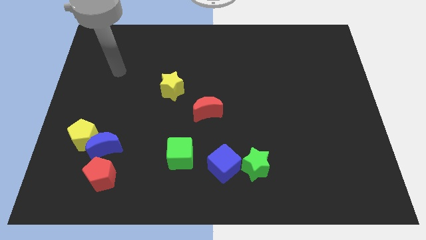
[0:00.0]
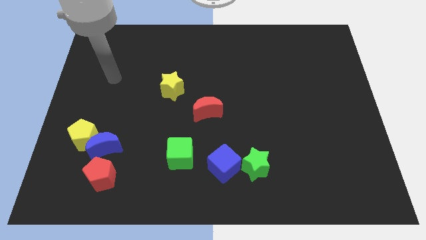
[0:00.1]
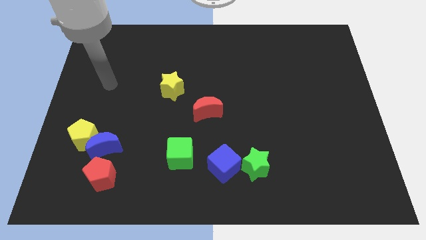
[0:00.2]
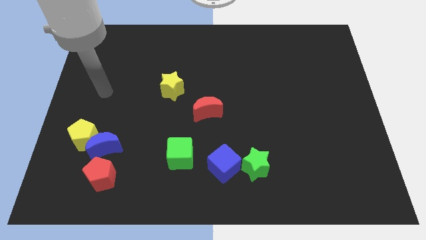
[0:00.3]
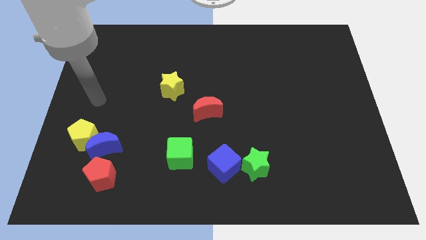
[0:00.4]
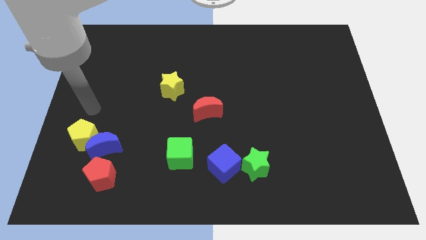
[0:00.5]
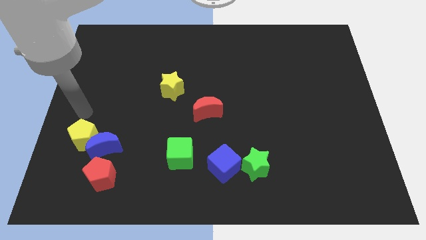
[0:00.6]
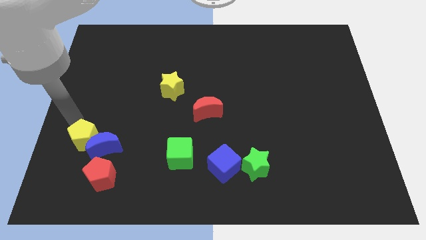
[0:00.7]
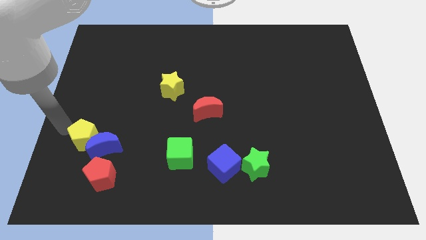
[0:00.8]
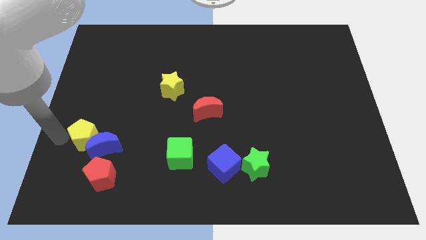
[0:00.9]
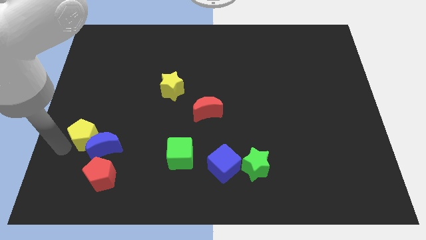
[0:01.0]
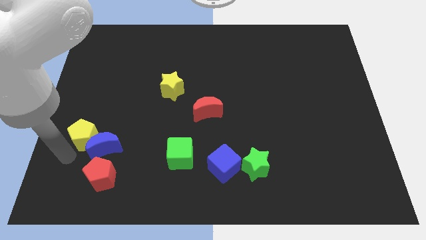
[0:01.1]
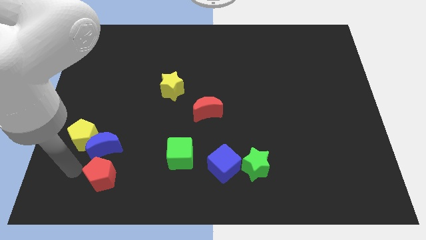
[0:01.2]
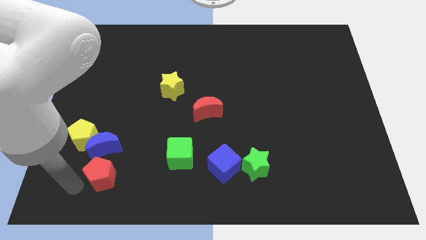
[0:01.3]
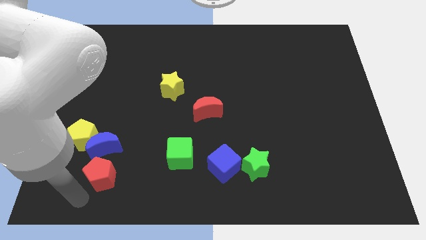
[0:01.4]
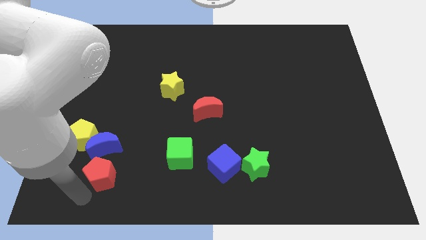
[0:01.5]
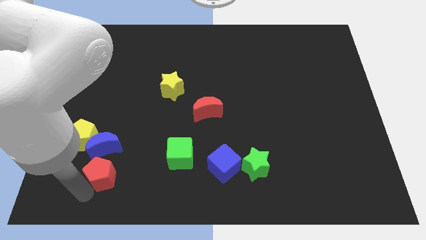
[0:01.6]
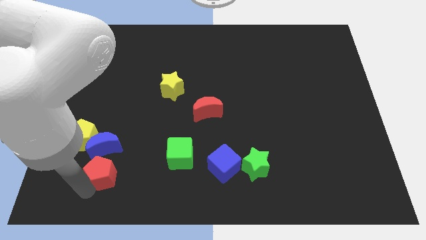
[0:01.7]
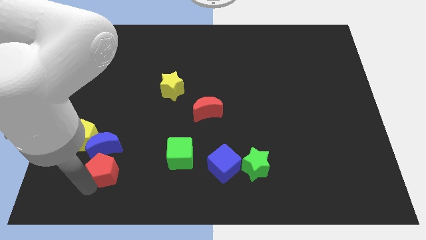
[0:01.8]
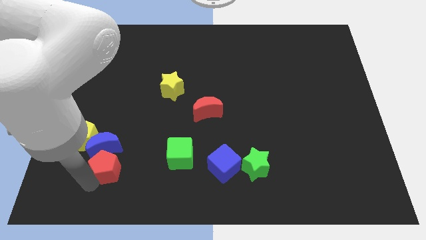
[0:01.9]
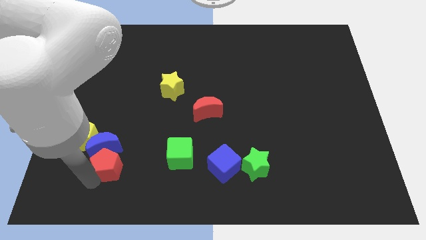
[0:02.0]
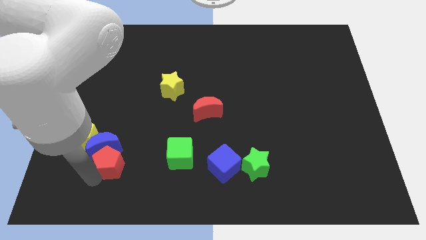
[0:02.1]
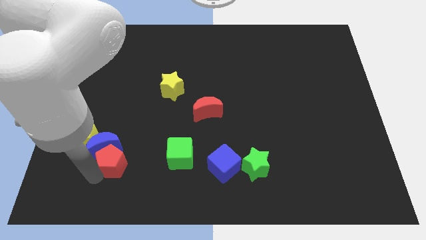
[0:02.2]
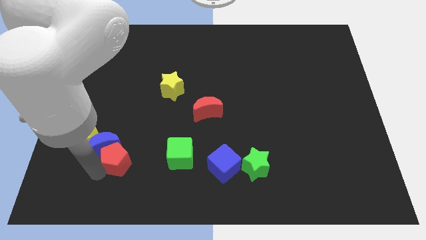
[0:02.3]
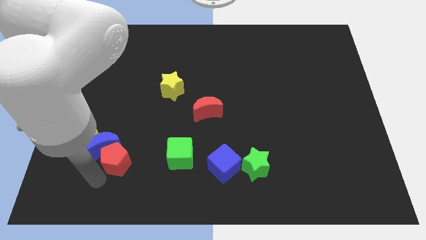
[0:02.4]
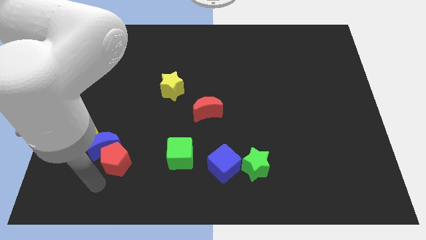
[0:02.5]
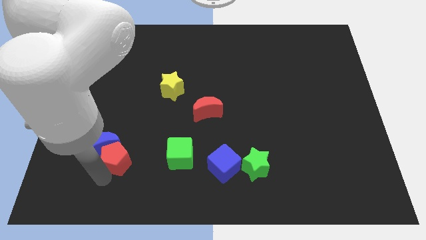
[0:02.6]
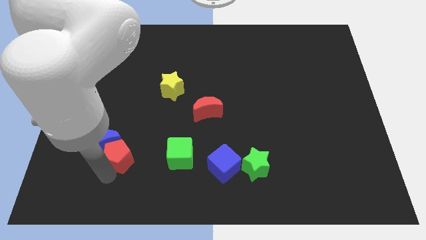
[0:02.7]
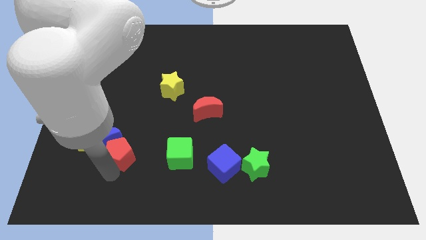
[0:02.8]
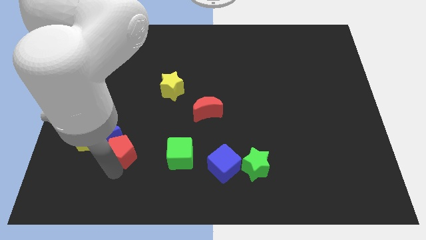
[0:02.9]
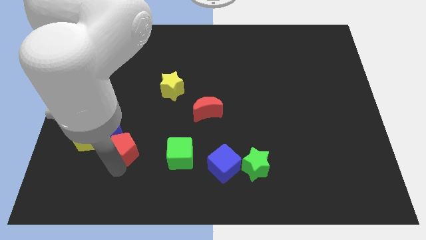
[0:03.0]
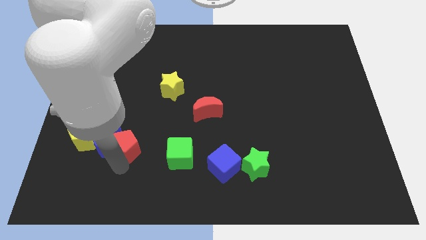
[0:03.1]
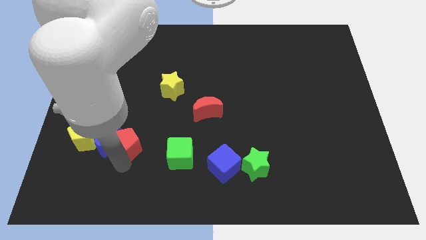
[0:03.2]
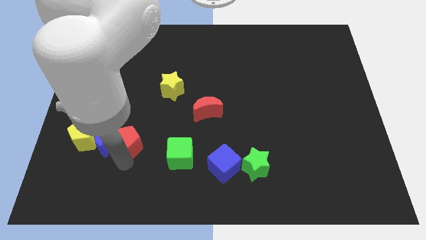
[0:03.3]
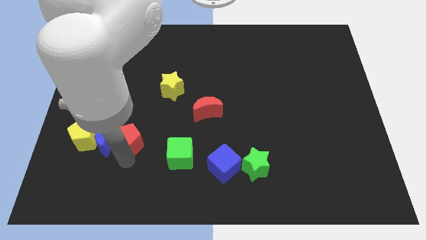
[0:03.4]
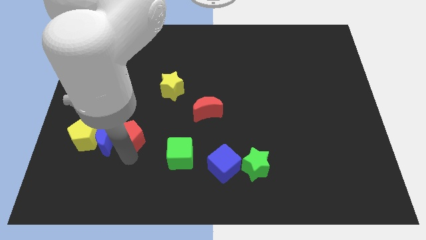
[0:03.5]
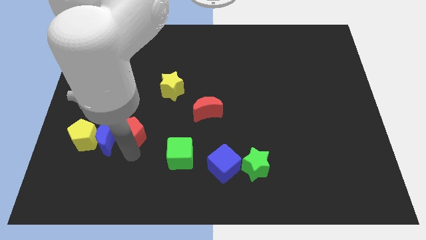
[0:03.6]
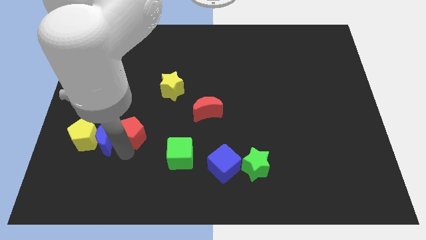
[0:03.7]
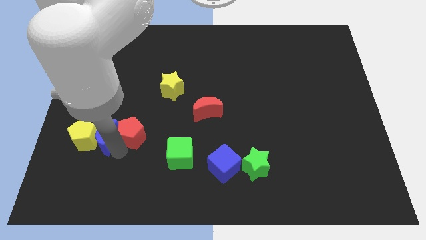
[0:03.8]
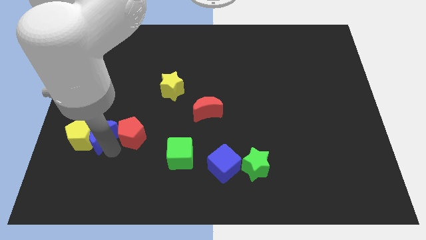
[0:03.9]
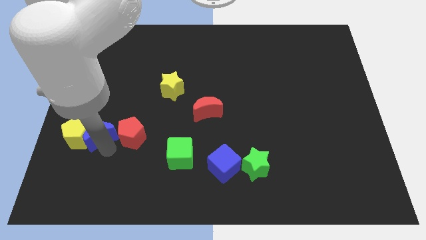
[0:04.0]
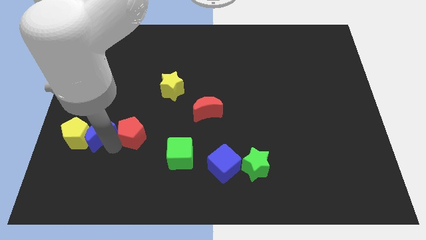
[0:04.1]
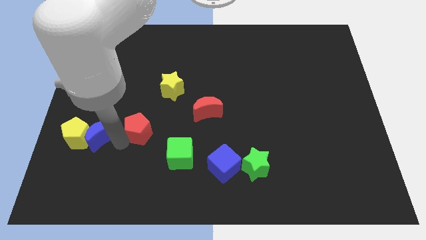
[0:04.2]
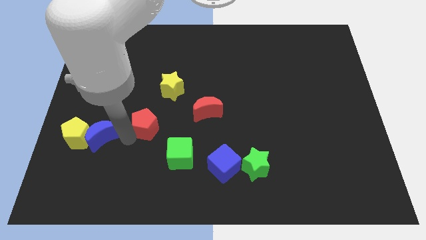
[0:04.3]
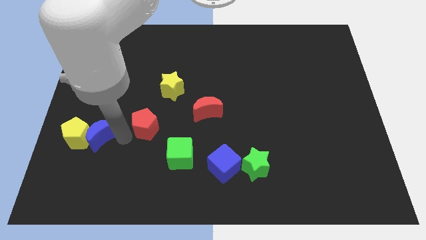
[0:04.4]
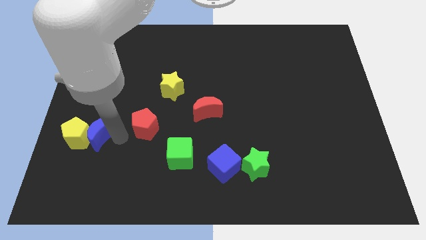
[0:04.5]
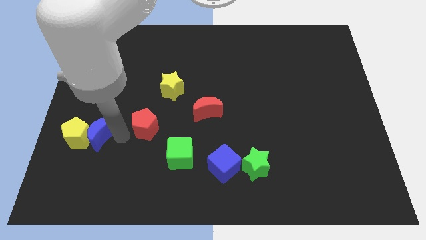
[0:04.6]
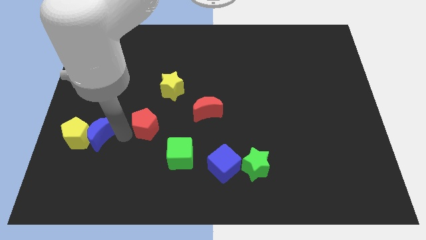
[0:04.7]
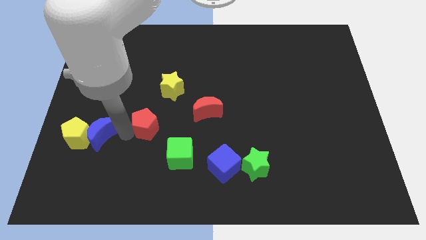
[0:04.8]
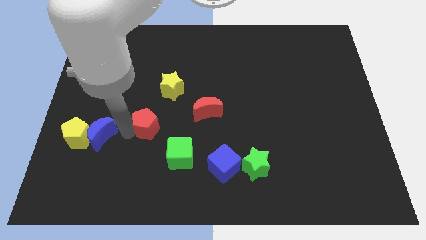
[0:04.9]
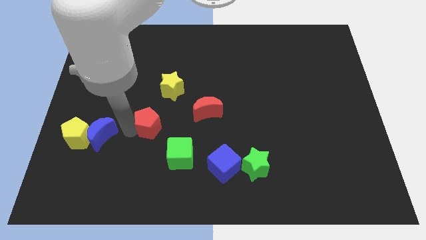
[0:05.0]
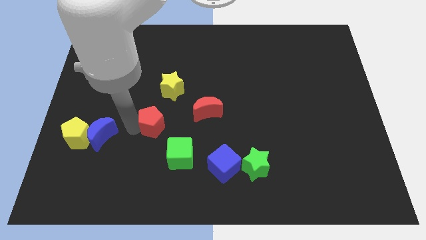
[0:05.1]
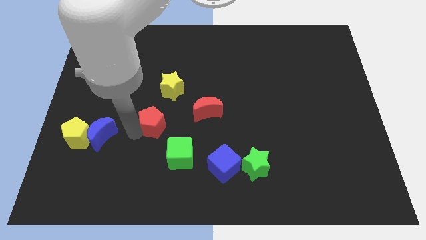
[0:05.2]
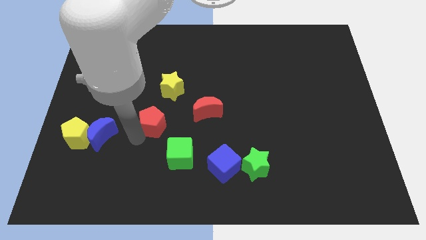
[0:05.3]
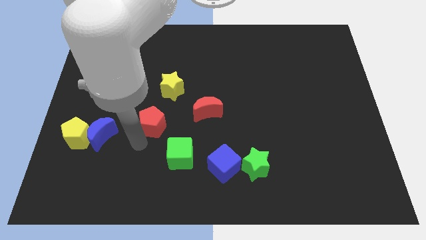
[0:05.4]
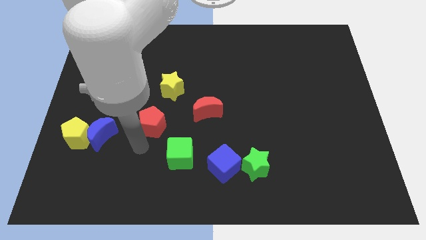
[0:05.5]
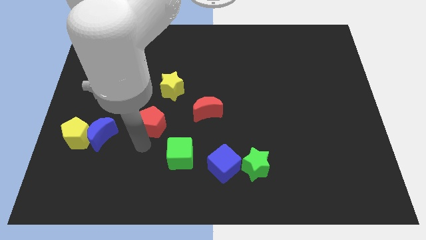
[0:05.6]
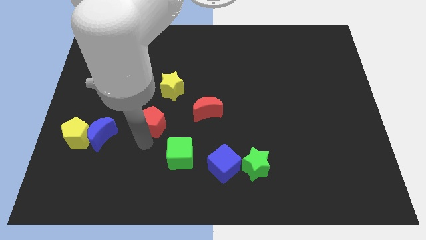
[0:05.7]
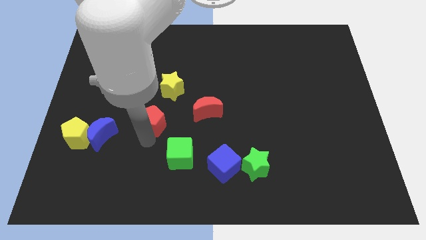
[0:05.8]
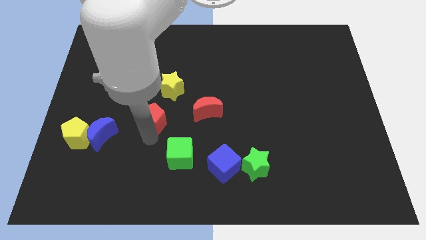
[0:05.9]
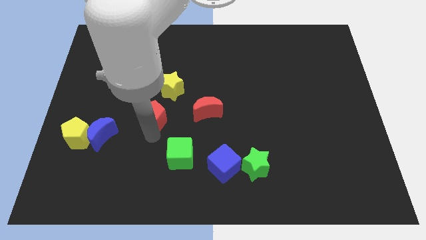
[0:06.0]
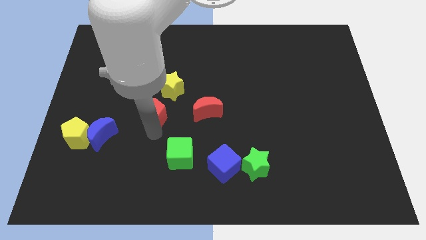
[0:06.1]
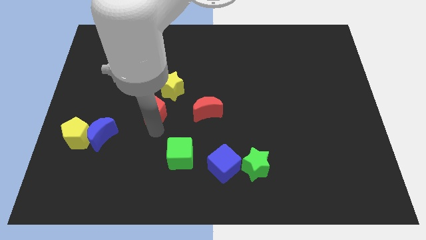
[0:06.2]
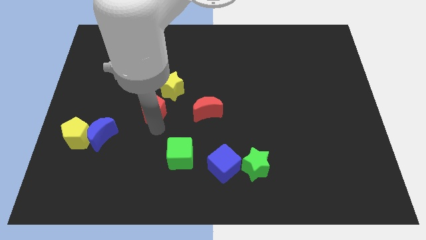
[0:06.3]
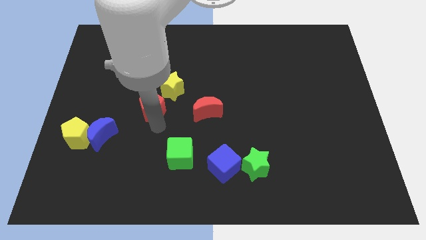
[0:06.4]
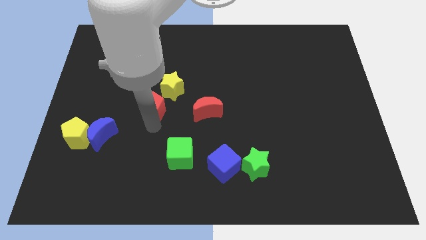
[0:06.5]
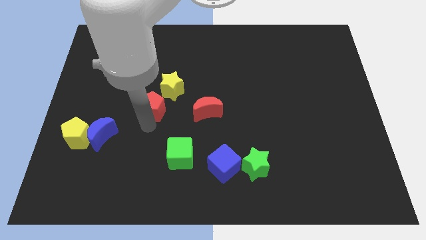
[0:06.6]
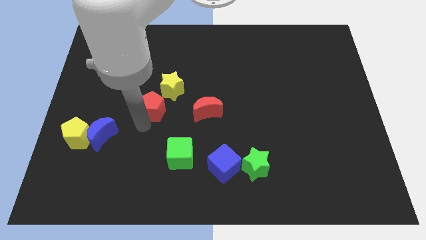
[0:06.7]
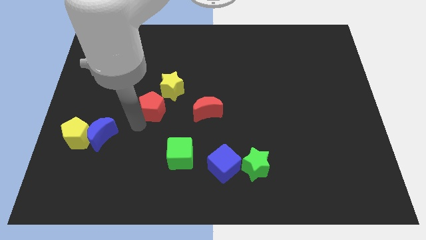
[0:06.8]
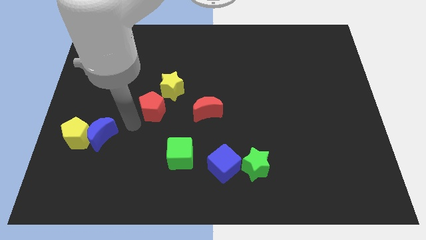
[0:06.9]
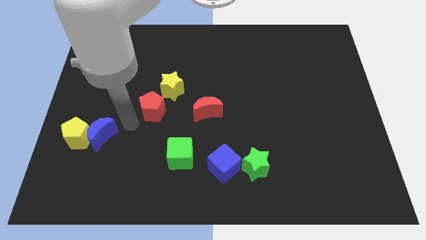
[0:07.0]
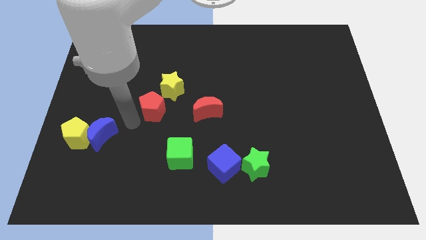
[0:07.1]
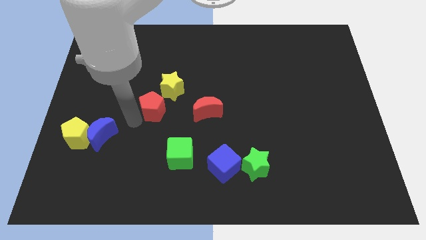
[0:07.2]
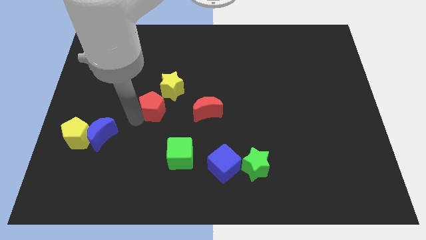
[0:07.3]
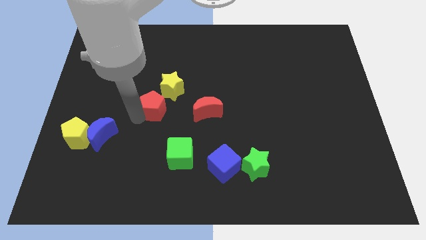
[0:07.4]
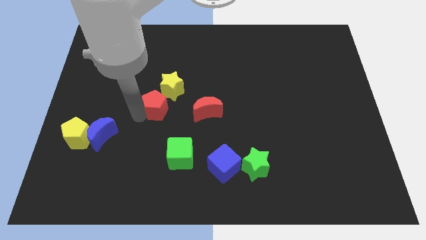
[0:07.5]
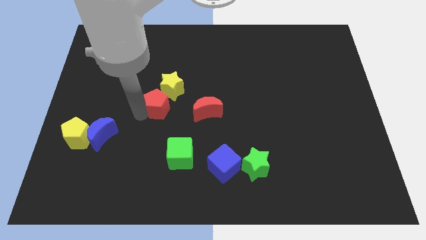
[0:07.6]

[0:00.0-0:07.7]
move the red pentagon close to the yellow star

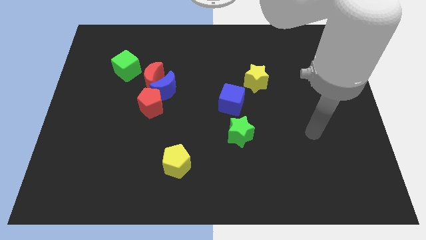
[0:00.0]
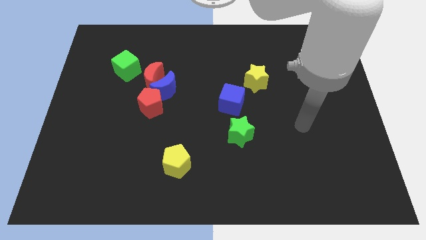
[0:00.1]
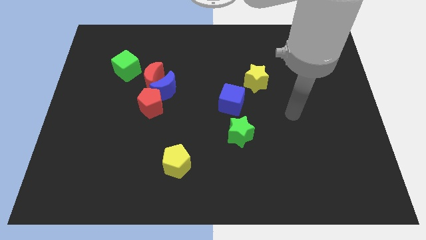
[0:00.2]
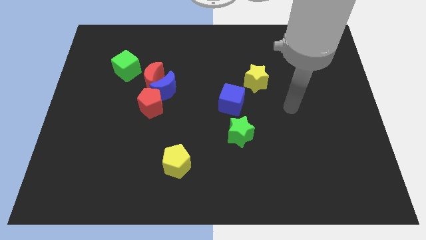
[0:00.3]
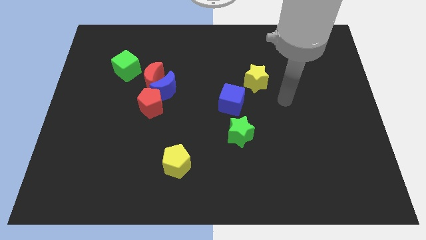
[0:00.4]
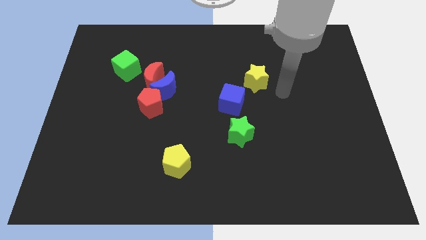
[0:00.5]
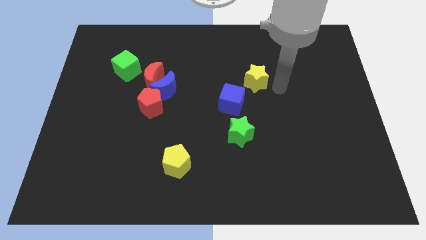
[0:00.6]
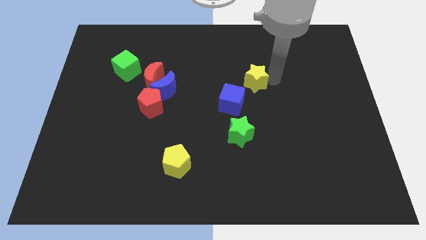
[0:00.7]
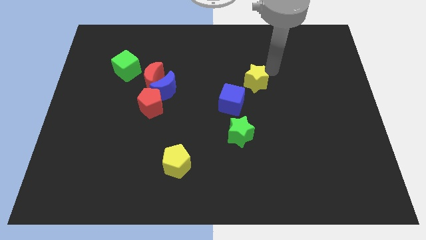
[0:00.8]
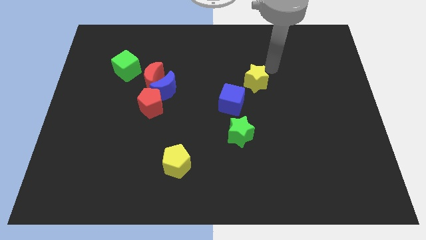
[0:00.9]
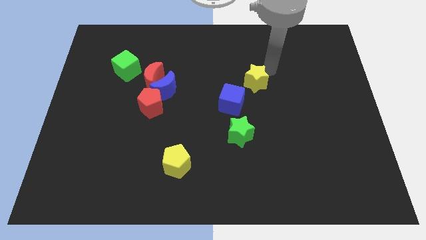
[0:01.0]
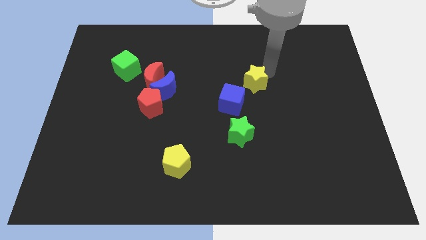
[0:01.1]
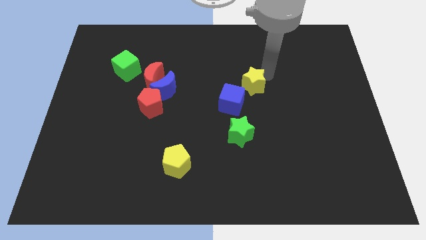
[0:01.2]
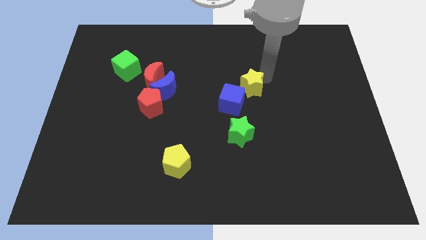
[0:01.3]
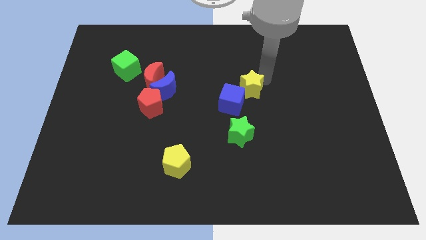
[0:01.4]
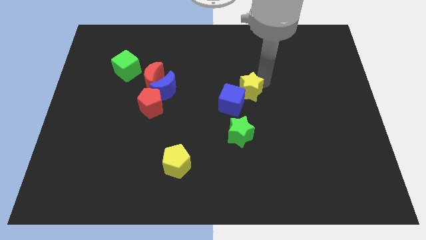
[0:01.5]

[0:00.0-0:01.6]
move the yellow star next to the blue cube
